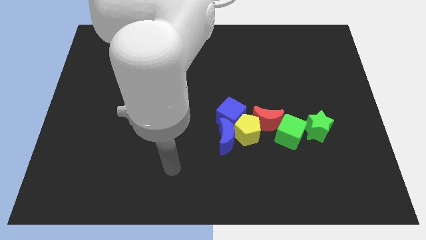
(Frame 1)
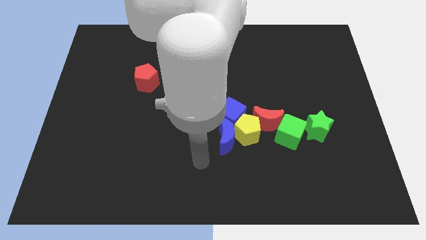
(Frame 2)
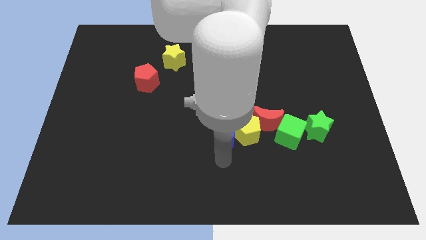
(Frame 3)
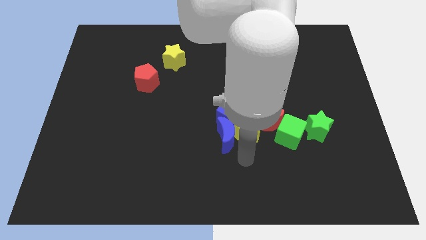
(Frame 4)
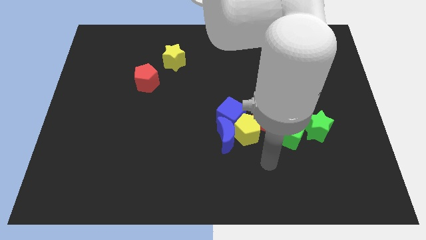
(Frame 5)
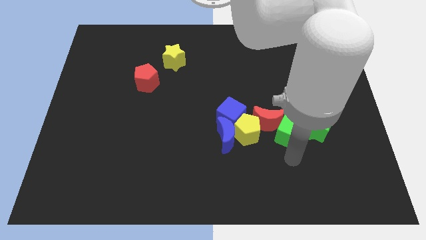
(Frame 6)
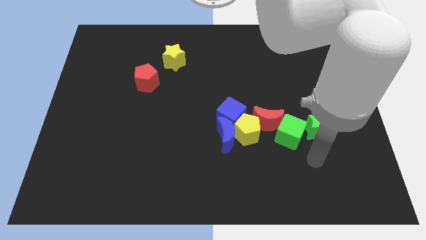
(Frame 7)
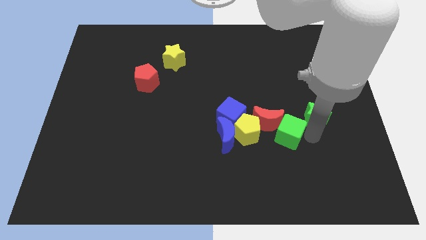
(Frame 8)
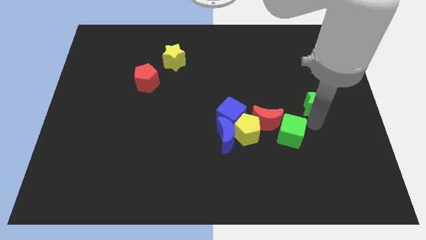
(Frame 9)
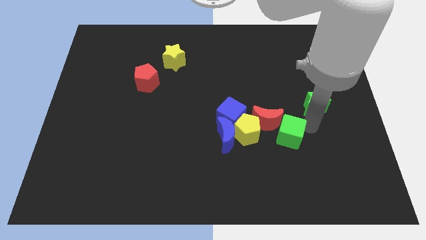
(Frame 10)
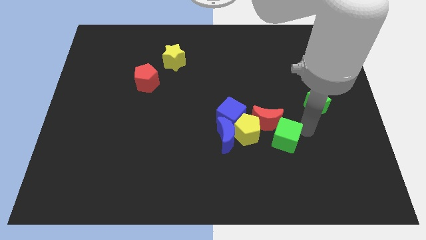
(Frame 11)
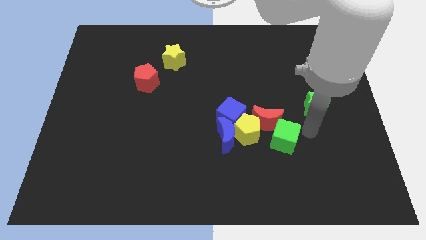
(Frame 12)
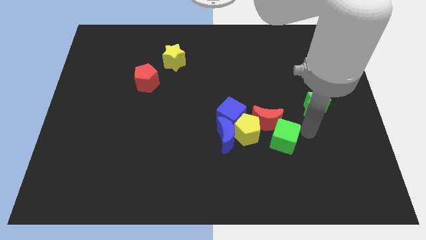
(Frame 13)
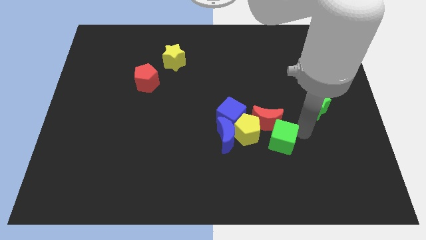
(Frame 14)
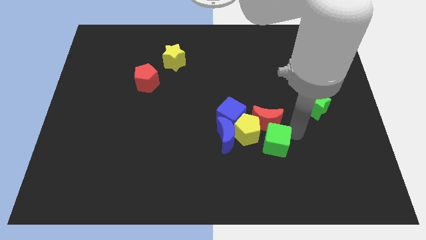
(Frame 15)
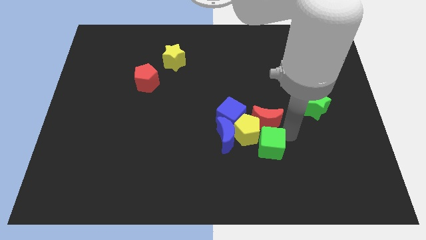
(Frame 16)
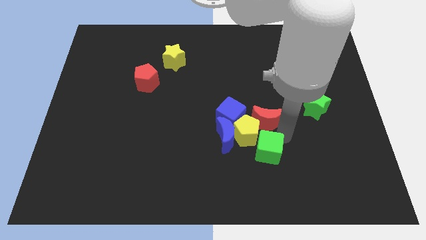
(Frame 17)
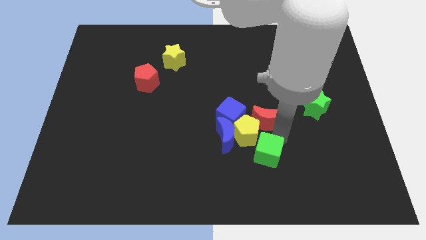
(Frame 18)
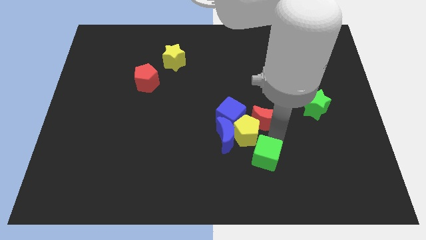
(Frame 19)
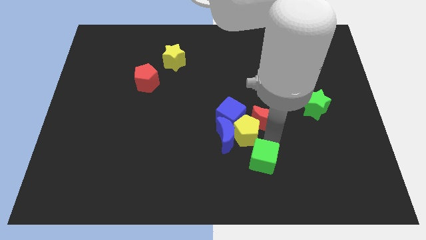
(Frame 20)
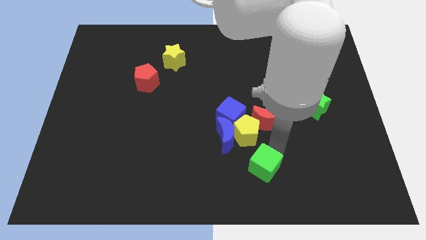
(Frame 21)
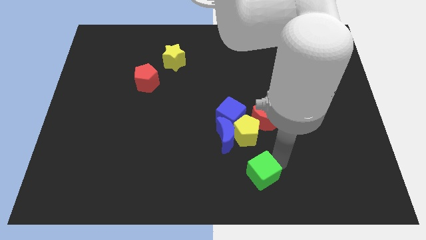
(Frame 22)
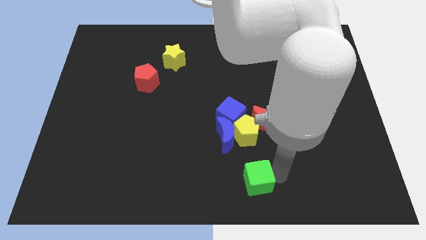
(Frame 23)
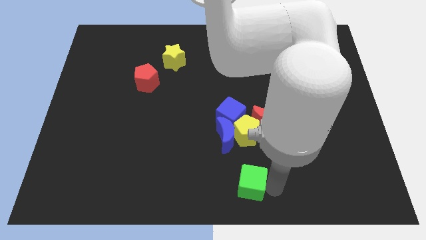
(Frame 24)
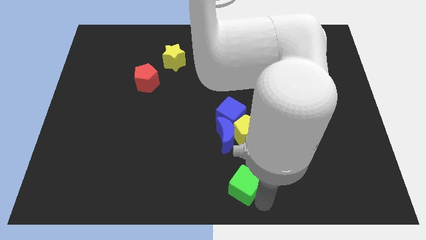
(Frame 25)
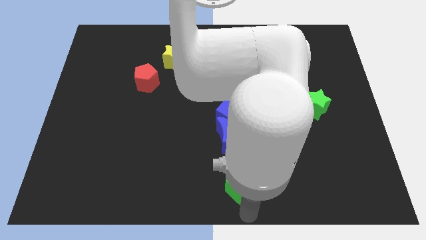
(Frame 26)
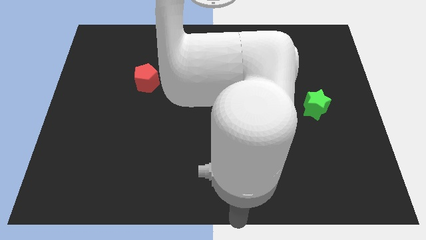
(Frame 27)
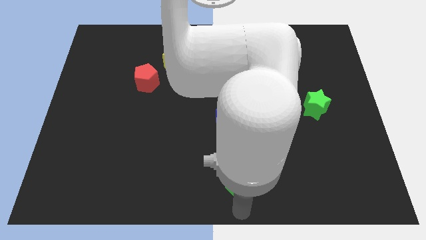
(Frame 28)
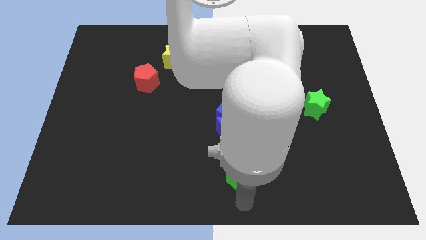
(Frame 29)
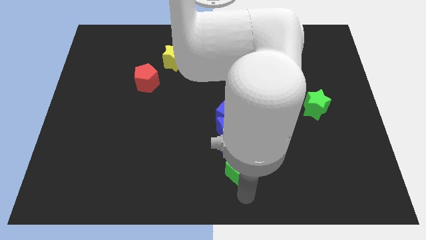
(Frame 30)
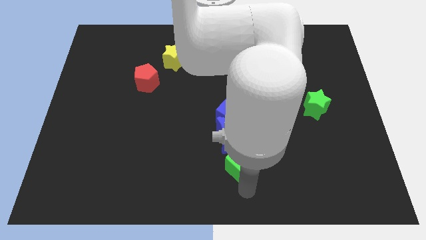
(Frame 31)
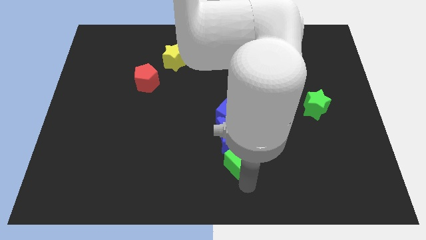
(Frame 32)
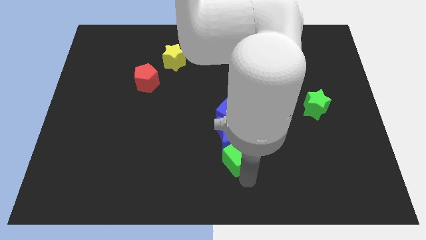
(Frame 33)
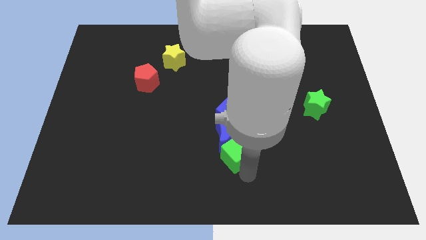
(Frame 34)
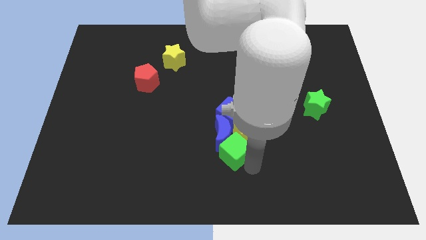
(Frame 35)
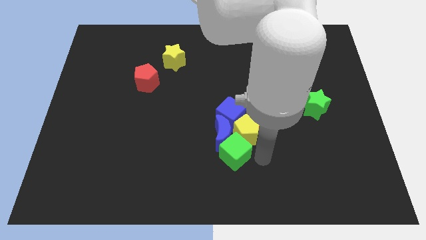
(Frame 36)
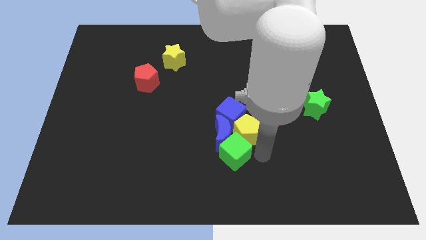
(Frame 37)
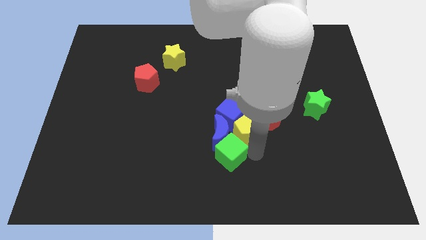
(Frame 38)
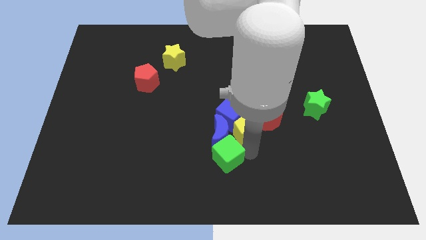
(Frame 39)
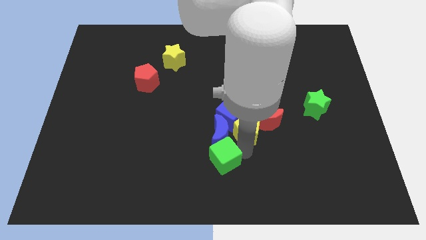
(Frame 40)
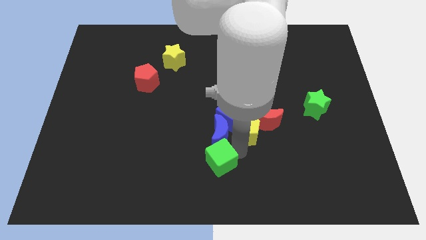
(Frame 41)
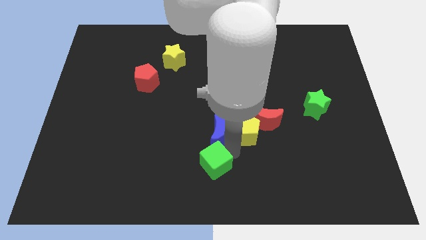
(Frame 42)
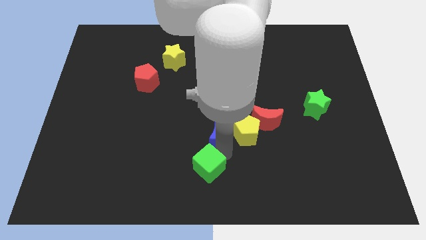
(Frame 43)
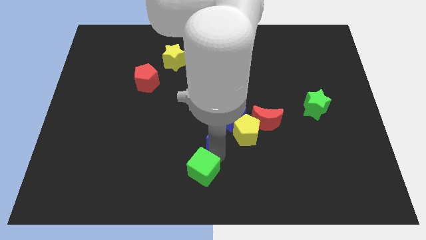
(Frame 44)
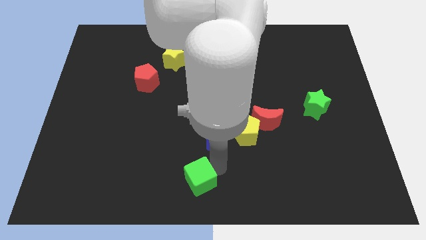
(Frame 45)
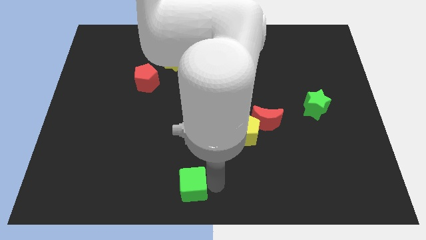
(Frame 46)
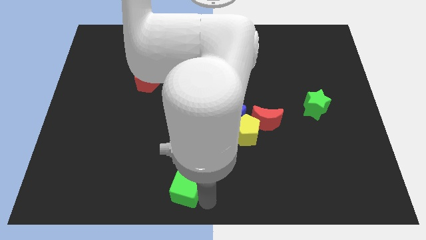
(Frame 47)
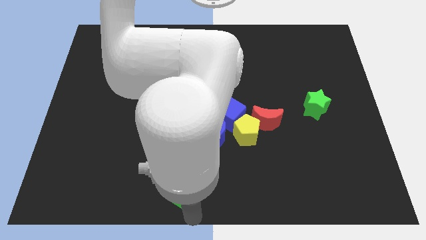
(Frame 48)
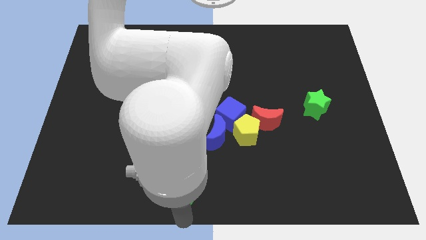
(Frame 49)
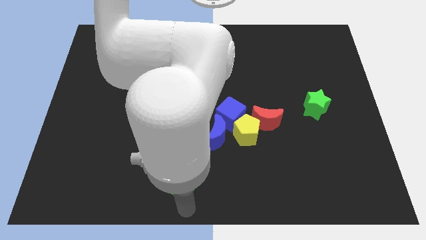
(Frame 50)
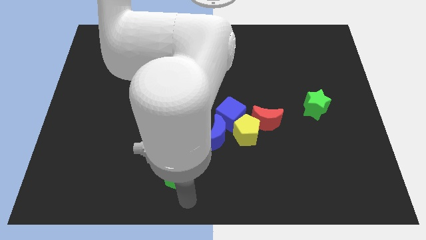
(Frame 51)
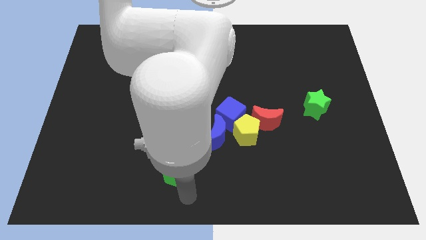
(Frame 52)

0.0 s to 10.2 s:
push the green cube to the left

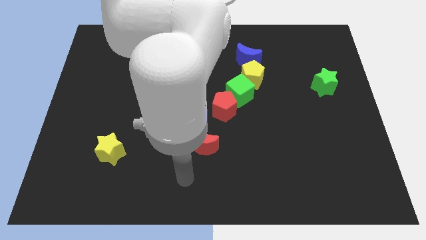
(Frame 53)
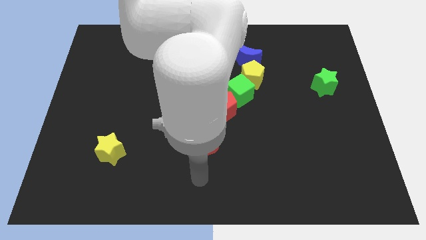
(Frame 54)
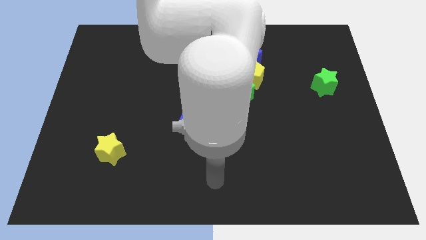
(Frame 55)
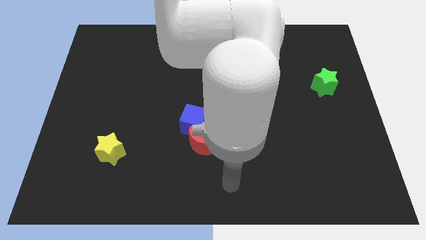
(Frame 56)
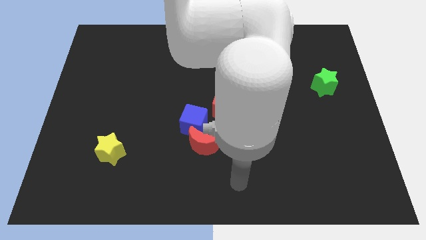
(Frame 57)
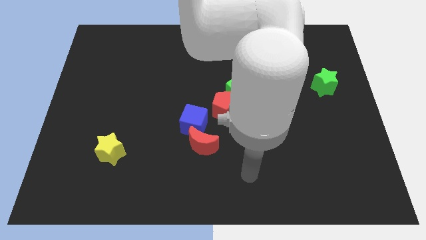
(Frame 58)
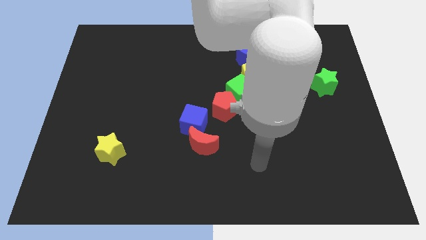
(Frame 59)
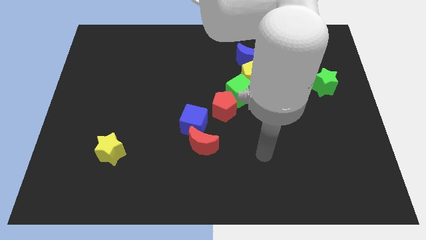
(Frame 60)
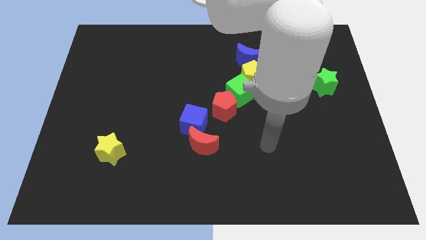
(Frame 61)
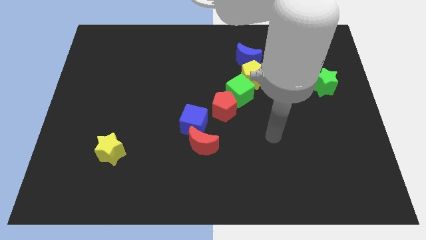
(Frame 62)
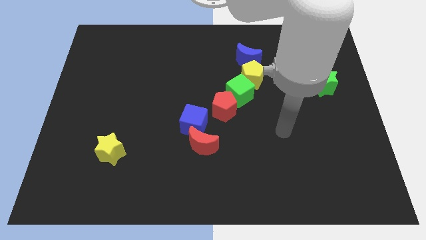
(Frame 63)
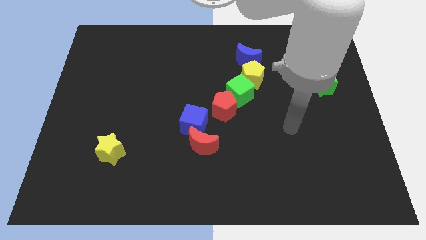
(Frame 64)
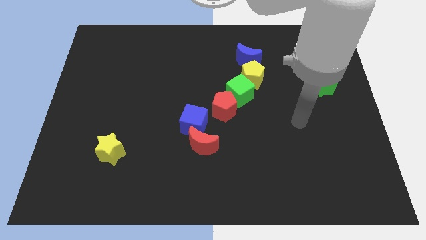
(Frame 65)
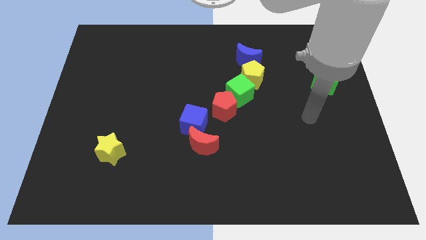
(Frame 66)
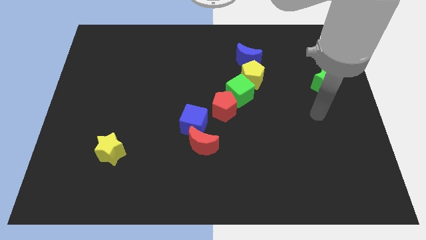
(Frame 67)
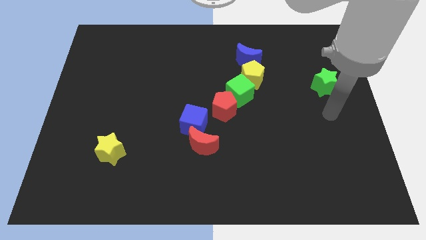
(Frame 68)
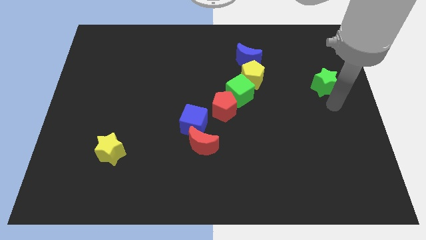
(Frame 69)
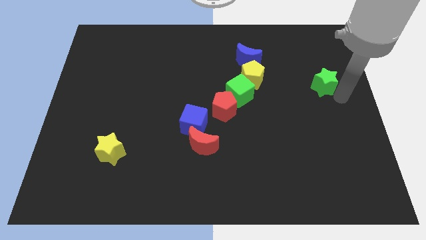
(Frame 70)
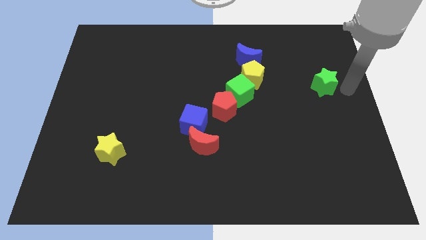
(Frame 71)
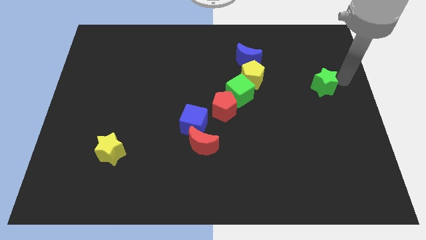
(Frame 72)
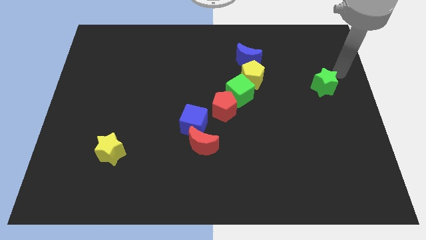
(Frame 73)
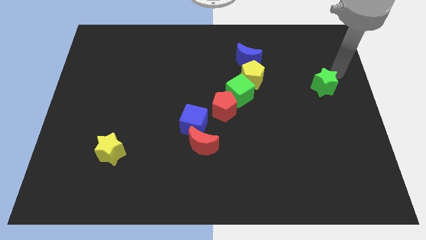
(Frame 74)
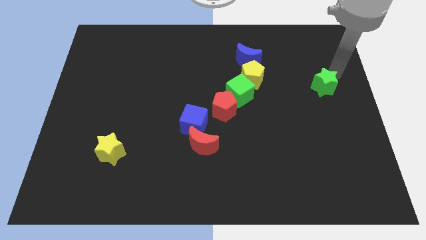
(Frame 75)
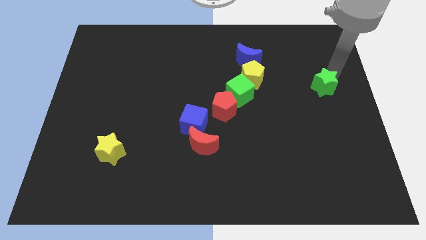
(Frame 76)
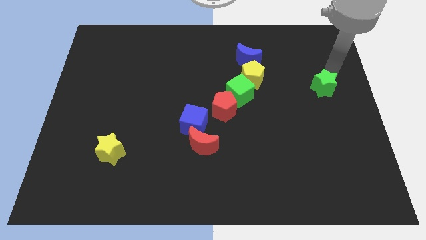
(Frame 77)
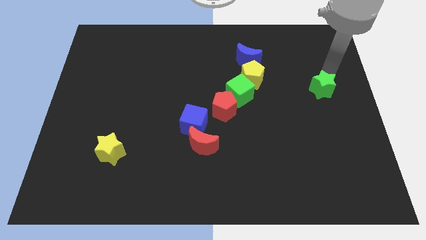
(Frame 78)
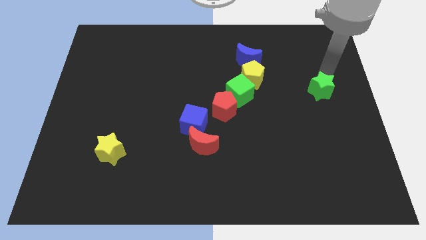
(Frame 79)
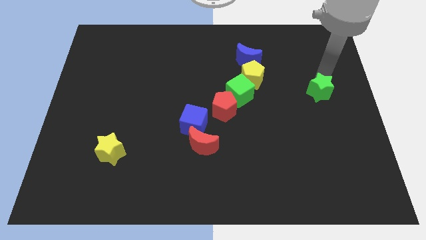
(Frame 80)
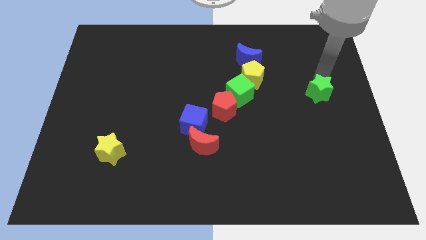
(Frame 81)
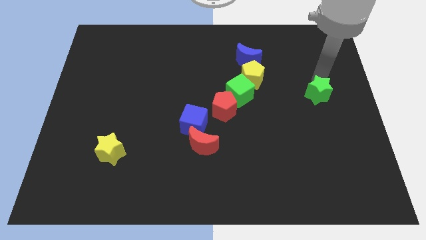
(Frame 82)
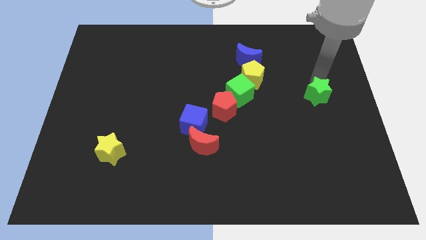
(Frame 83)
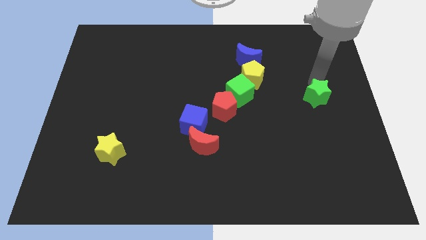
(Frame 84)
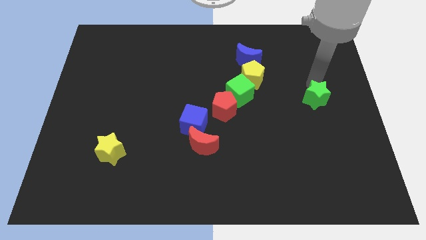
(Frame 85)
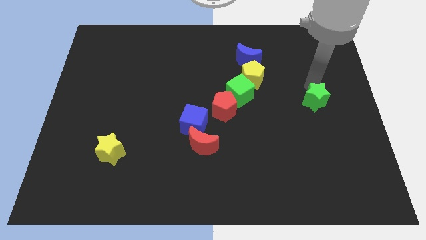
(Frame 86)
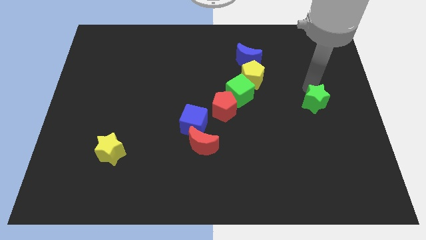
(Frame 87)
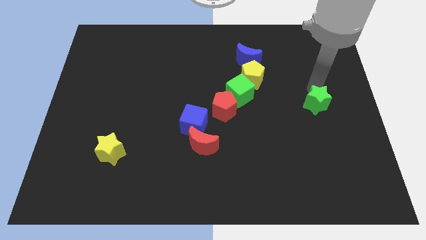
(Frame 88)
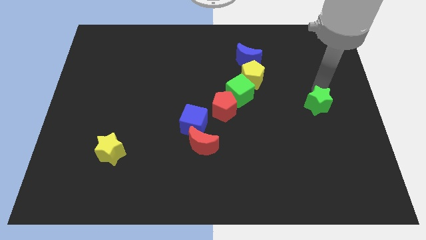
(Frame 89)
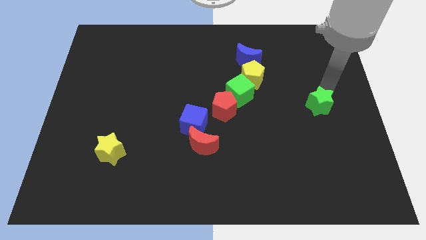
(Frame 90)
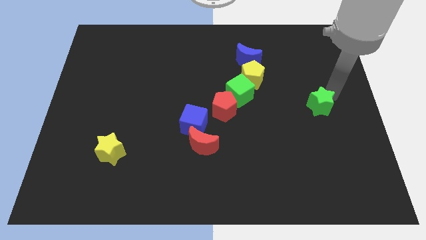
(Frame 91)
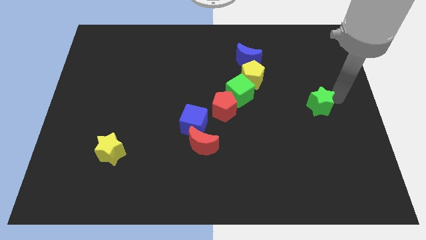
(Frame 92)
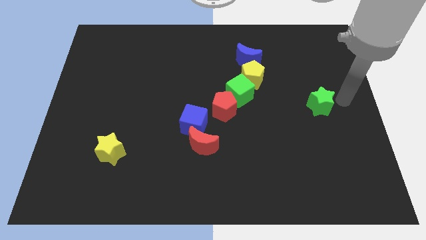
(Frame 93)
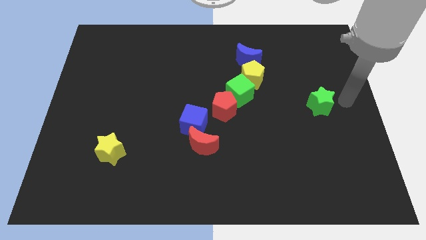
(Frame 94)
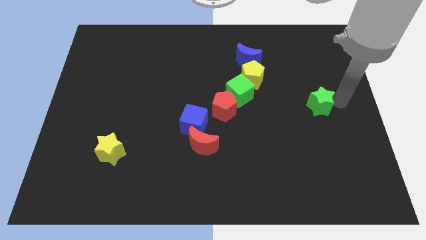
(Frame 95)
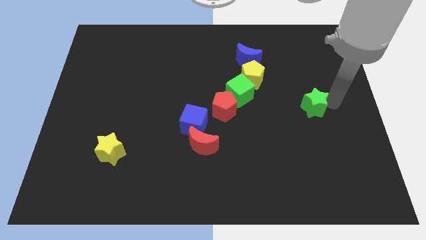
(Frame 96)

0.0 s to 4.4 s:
move the green star down and to the left a bit
